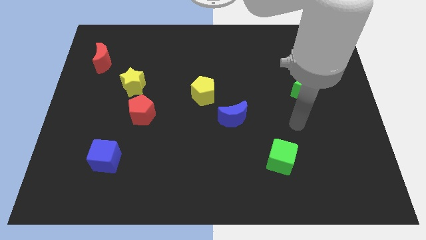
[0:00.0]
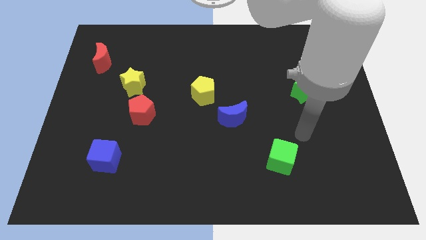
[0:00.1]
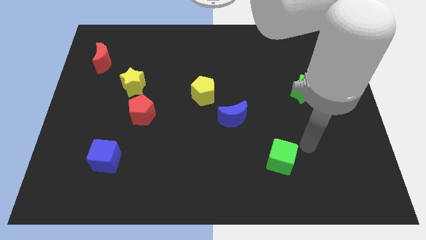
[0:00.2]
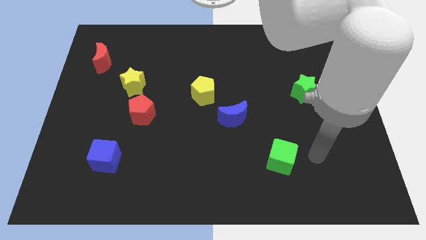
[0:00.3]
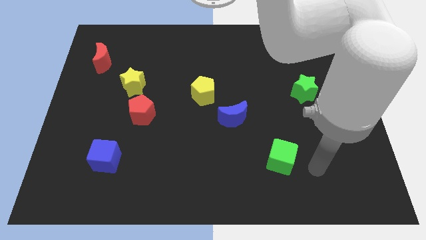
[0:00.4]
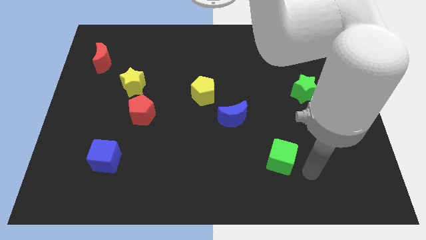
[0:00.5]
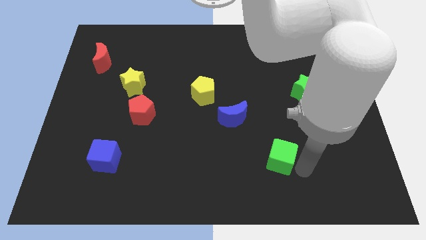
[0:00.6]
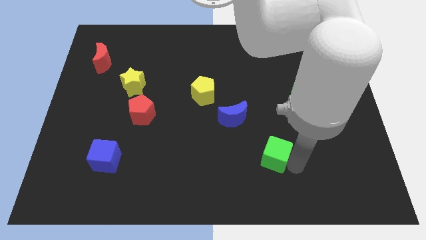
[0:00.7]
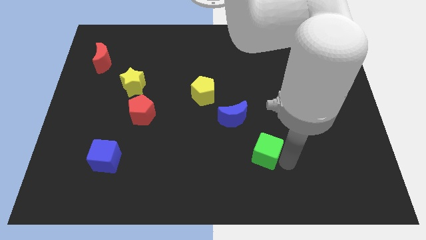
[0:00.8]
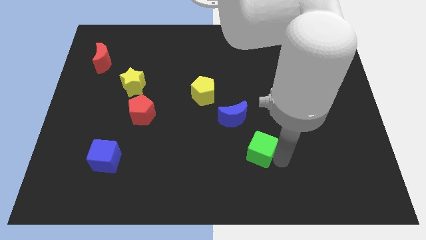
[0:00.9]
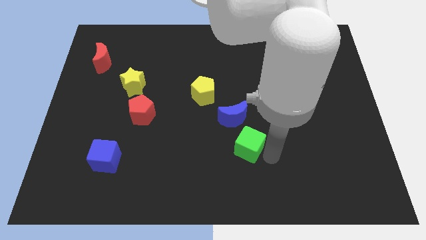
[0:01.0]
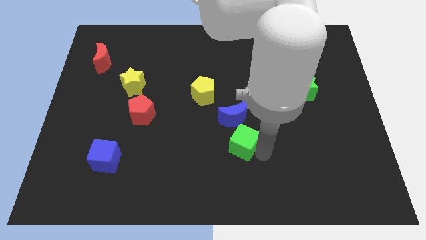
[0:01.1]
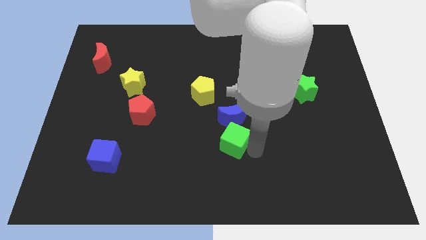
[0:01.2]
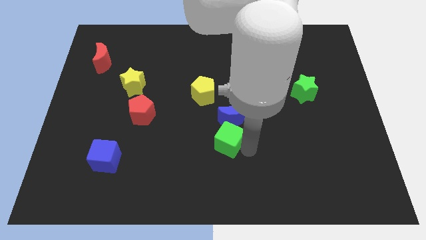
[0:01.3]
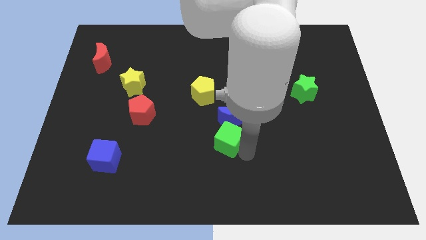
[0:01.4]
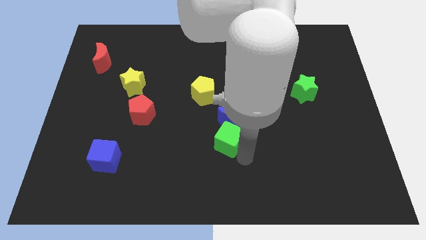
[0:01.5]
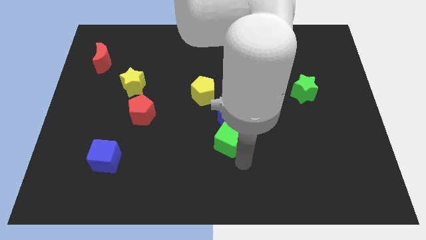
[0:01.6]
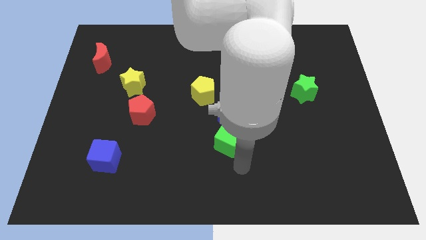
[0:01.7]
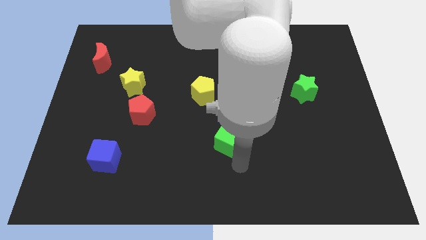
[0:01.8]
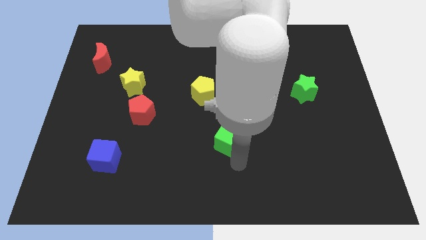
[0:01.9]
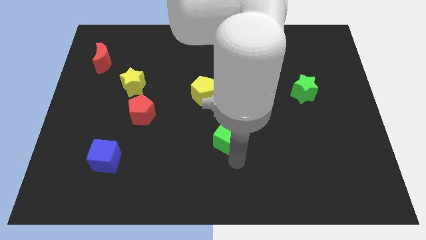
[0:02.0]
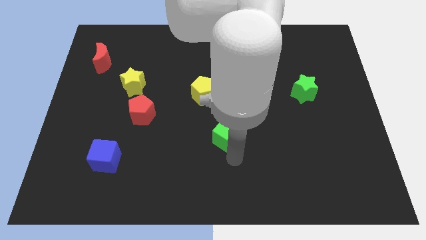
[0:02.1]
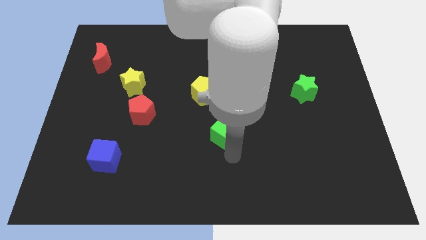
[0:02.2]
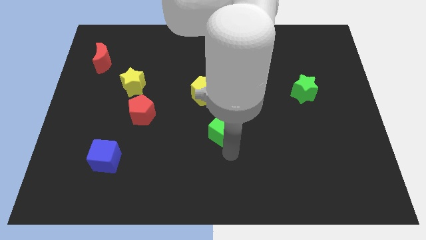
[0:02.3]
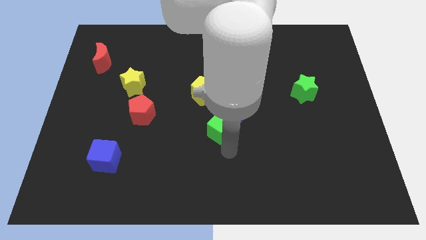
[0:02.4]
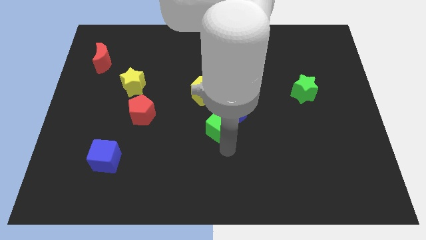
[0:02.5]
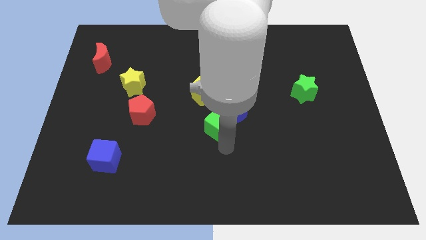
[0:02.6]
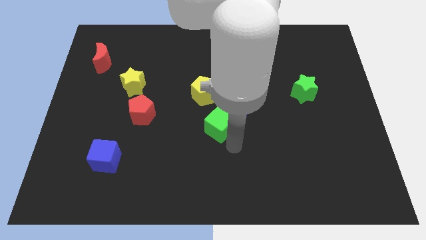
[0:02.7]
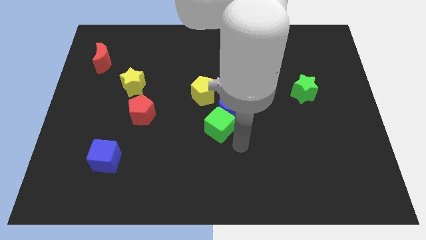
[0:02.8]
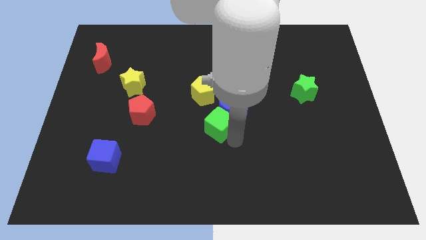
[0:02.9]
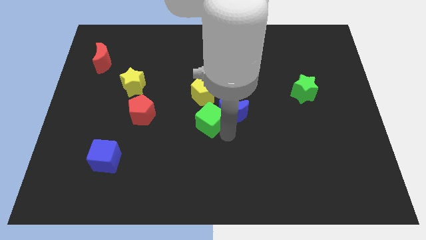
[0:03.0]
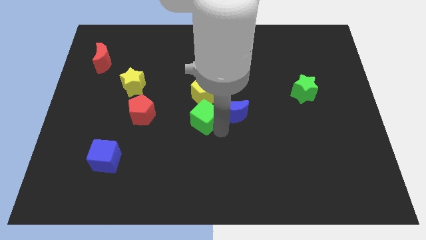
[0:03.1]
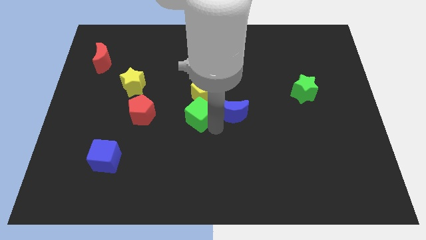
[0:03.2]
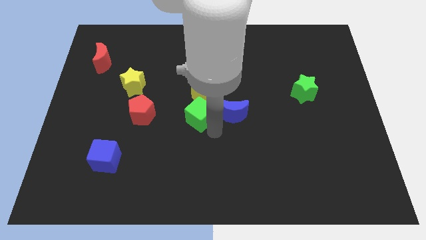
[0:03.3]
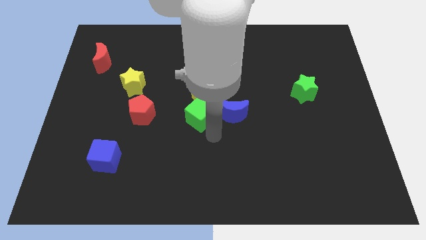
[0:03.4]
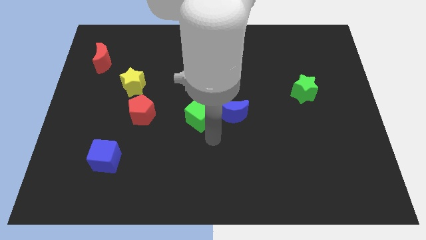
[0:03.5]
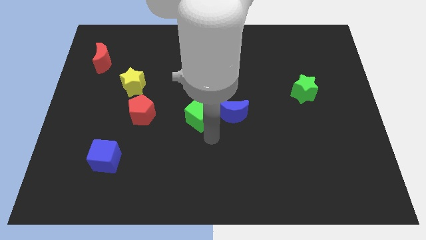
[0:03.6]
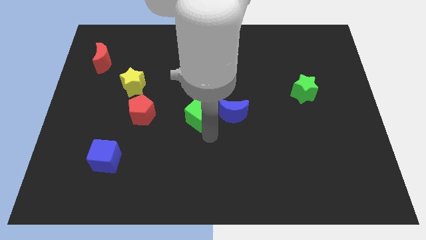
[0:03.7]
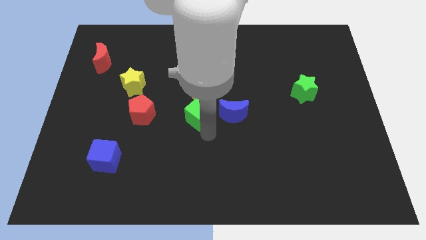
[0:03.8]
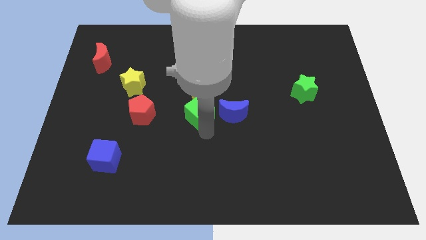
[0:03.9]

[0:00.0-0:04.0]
slide the green cube diagonally up and left

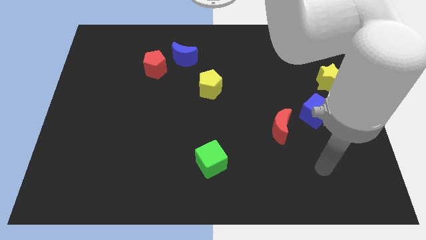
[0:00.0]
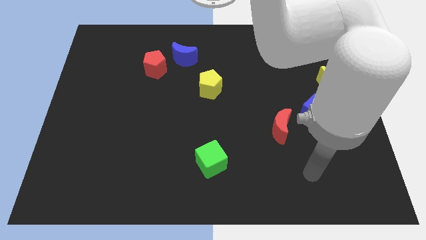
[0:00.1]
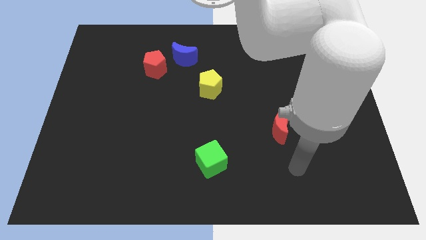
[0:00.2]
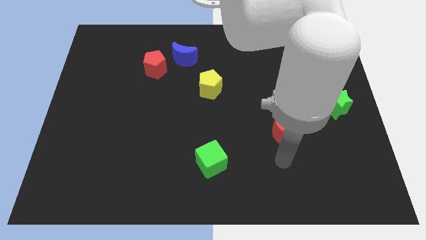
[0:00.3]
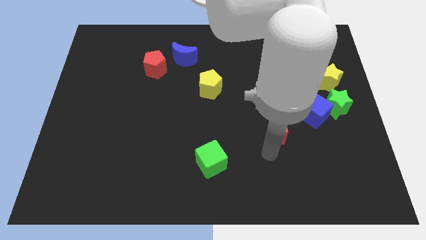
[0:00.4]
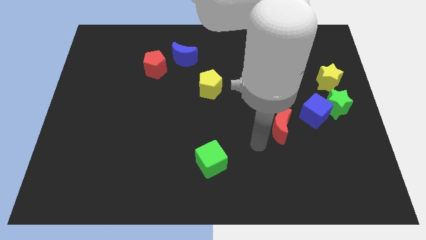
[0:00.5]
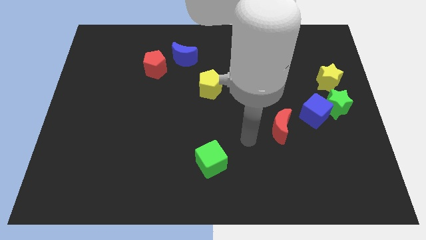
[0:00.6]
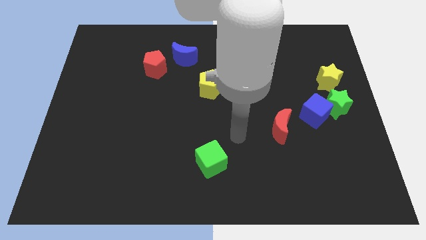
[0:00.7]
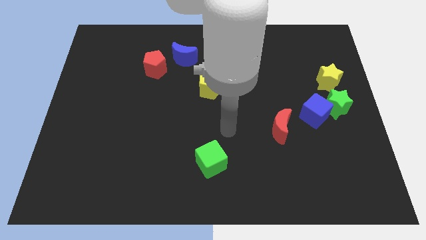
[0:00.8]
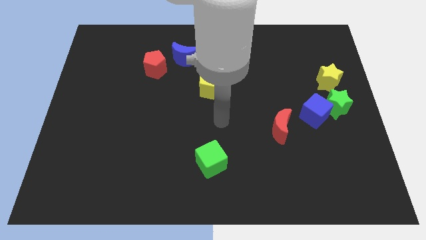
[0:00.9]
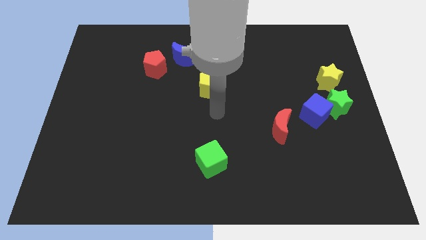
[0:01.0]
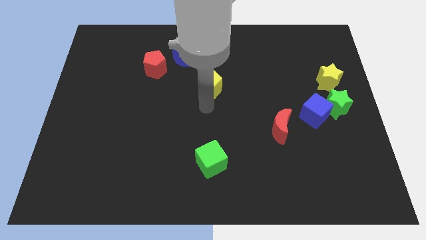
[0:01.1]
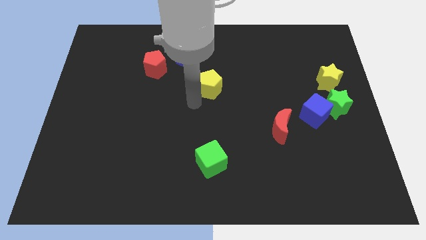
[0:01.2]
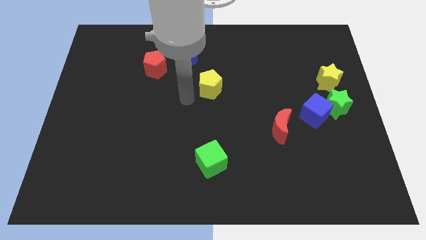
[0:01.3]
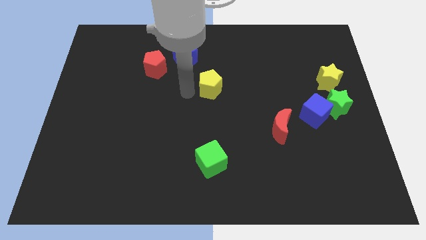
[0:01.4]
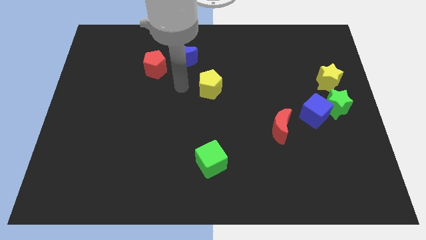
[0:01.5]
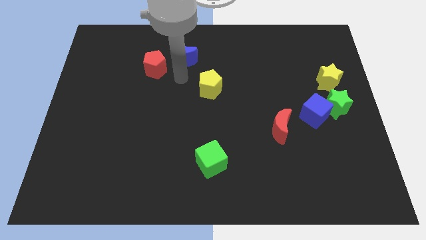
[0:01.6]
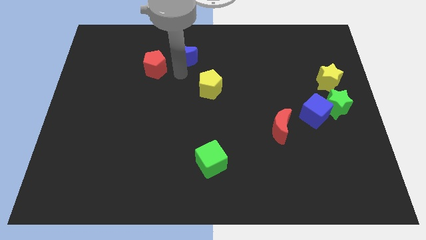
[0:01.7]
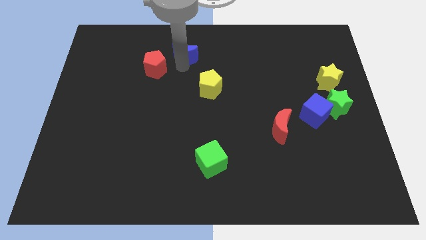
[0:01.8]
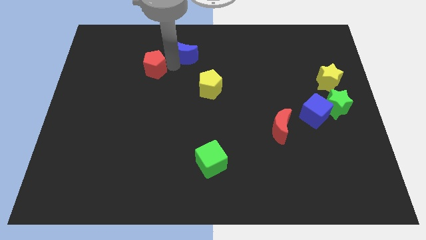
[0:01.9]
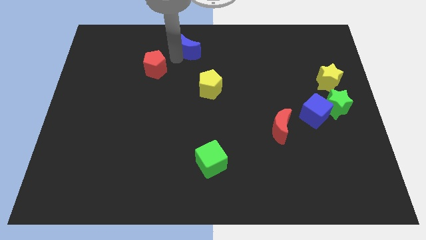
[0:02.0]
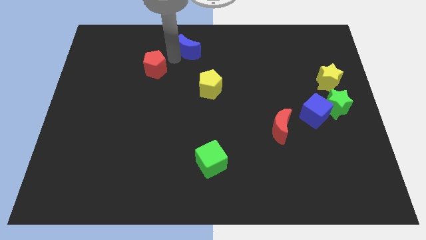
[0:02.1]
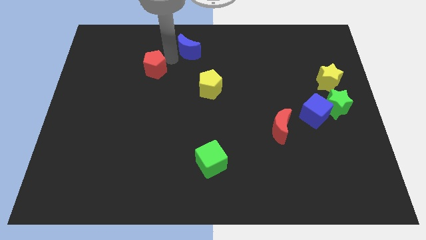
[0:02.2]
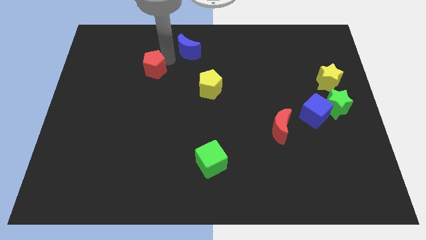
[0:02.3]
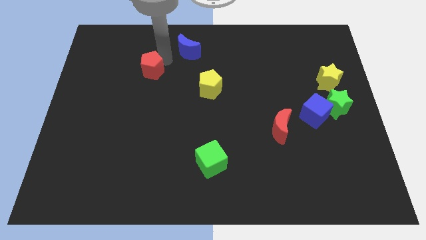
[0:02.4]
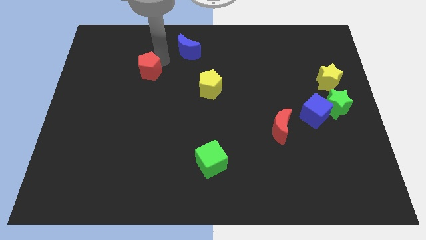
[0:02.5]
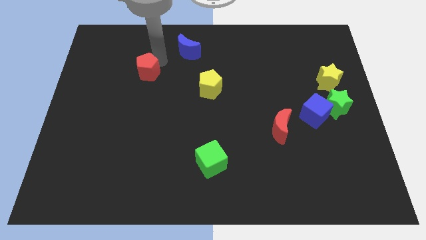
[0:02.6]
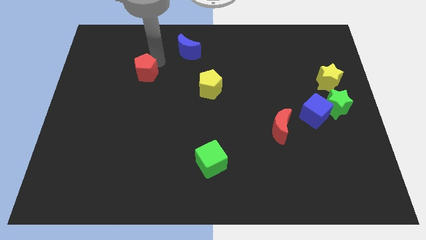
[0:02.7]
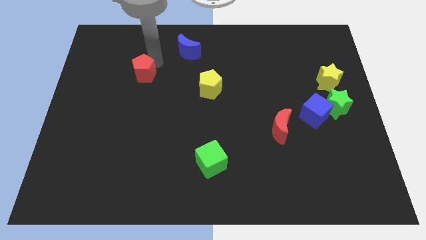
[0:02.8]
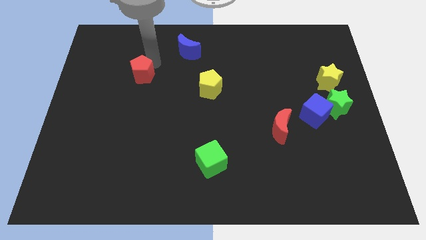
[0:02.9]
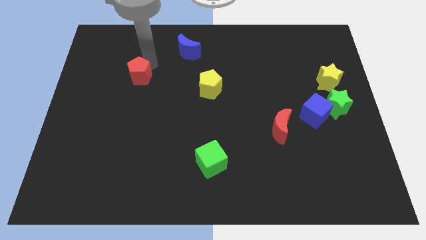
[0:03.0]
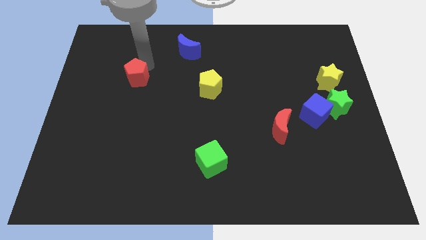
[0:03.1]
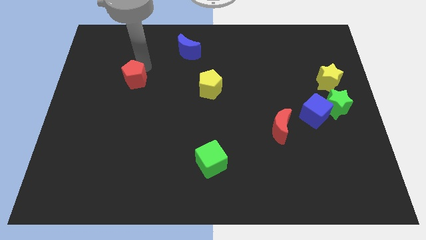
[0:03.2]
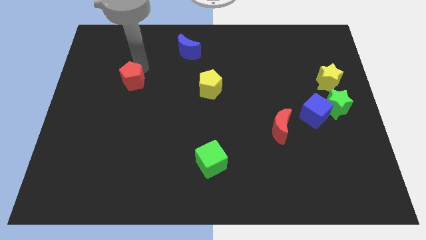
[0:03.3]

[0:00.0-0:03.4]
push the red pentagon diagonally downwards and to the left a little bit

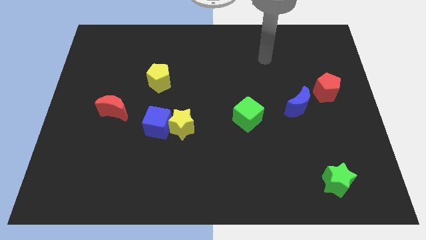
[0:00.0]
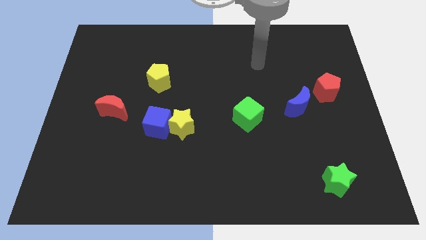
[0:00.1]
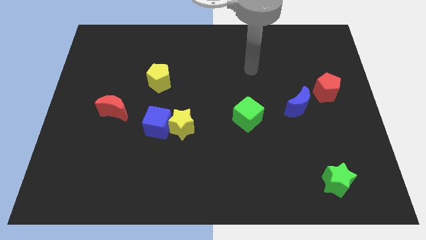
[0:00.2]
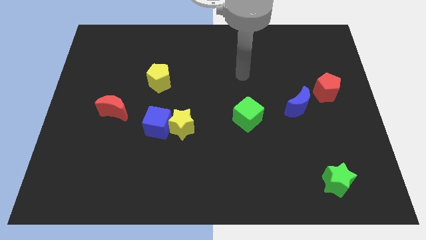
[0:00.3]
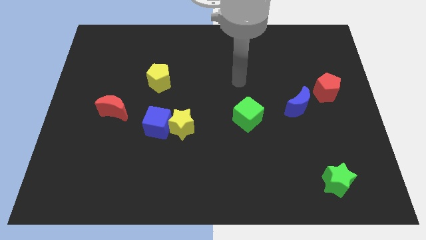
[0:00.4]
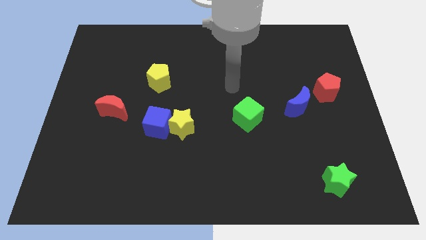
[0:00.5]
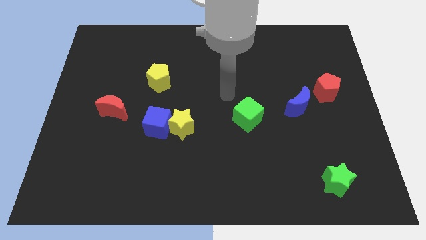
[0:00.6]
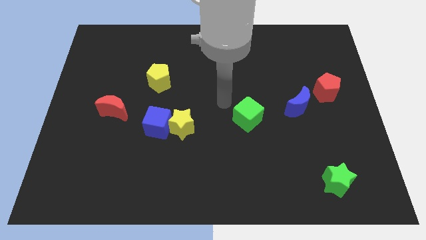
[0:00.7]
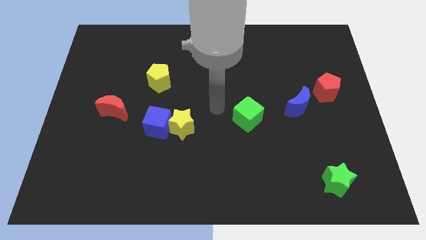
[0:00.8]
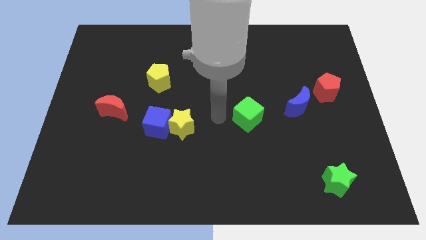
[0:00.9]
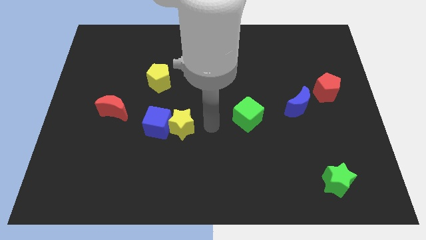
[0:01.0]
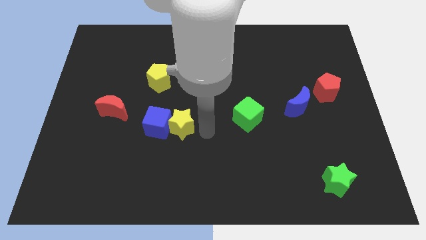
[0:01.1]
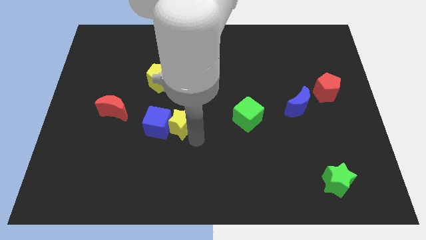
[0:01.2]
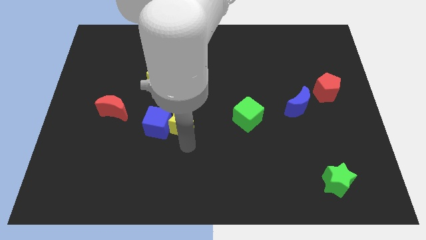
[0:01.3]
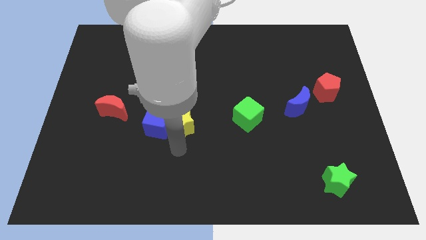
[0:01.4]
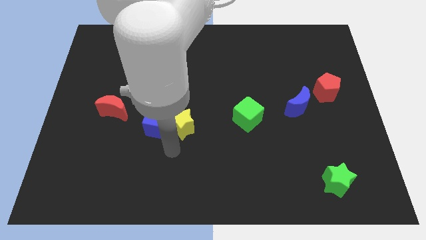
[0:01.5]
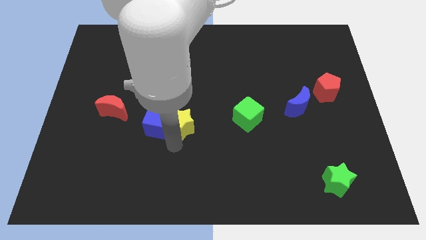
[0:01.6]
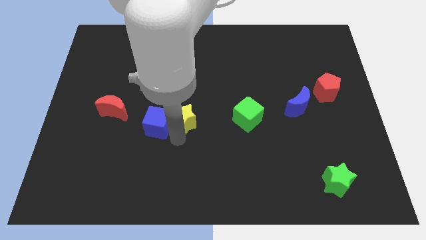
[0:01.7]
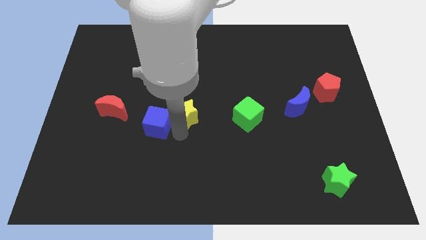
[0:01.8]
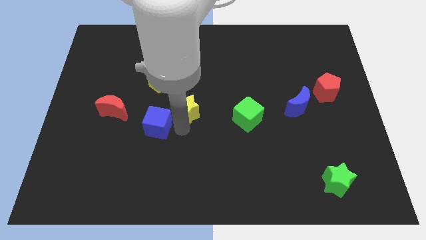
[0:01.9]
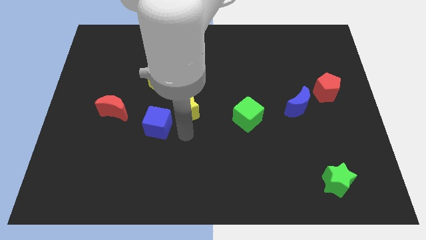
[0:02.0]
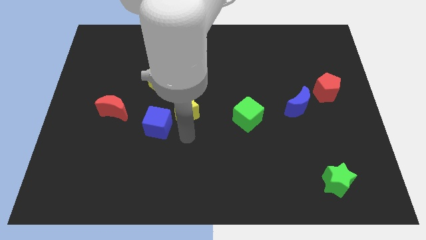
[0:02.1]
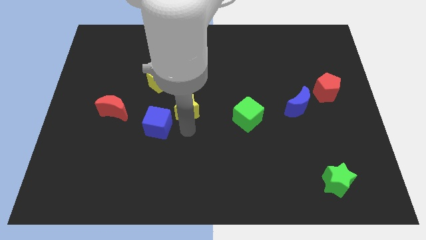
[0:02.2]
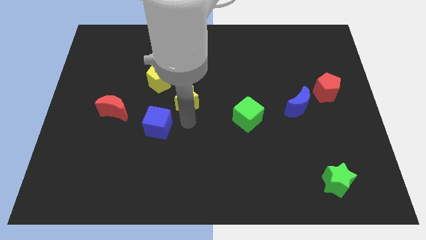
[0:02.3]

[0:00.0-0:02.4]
slightly move the yellow star upwards
